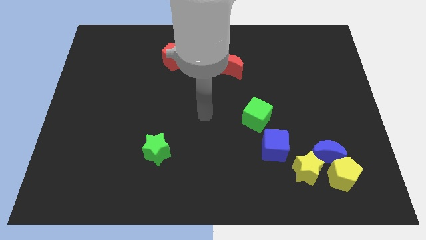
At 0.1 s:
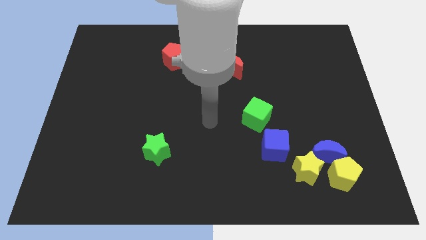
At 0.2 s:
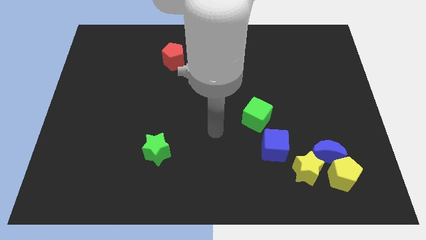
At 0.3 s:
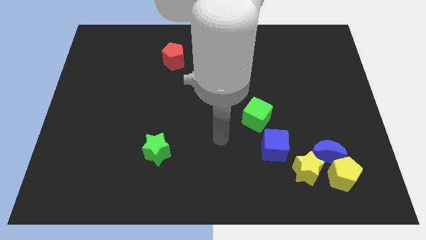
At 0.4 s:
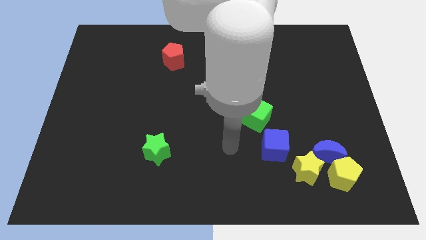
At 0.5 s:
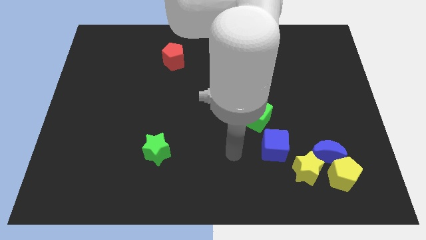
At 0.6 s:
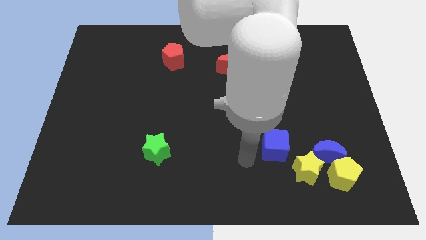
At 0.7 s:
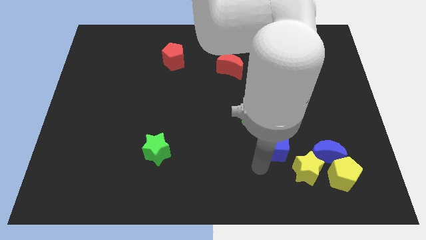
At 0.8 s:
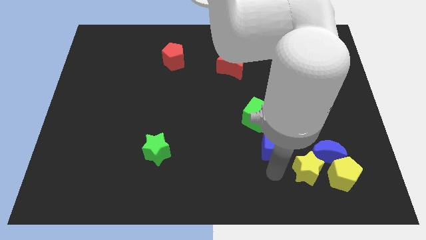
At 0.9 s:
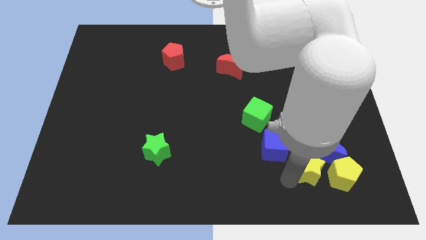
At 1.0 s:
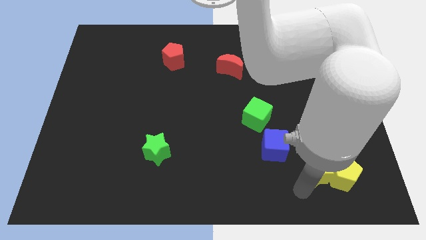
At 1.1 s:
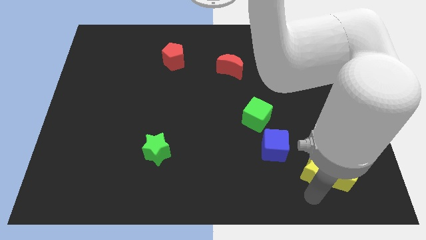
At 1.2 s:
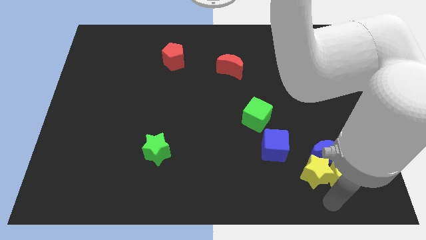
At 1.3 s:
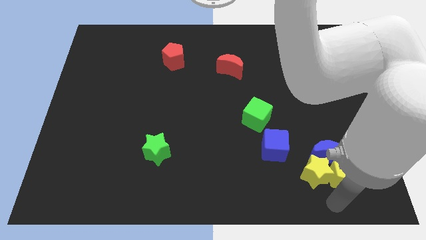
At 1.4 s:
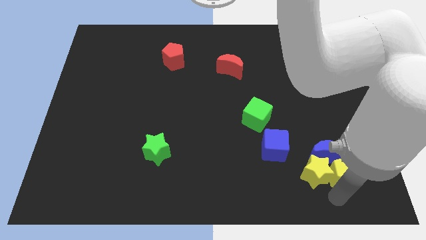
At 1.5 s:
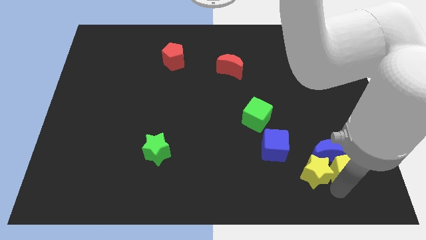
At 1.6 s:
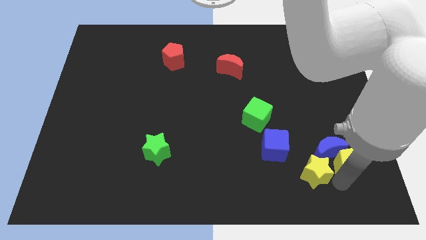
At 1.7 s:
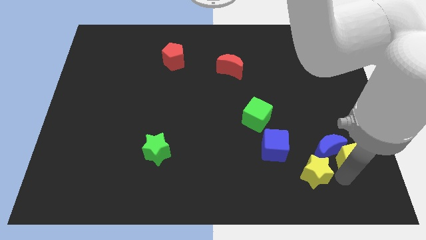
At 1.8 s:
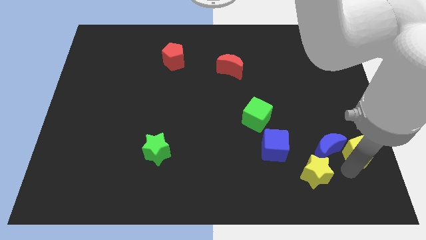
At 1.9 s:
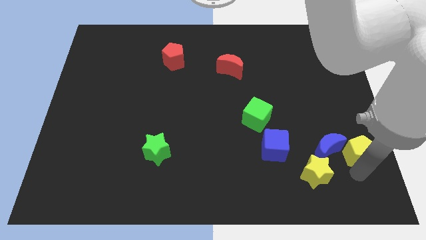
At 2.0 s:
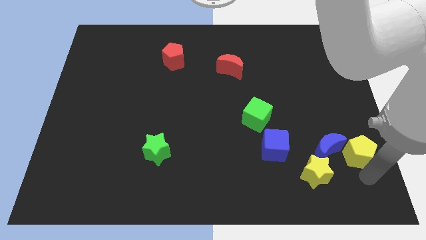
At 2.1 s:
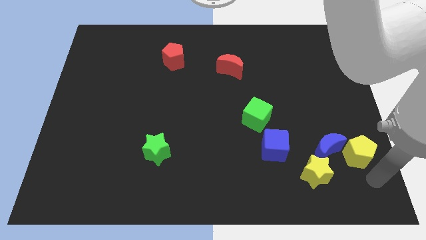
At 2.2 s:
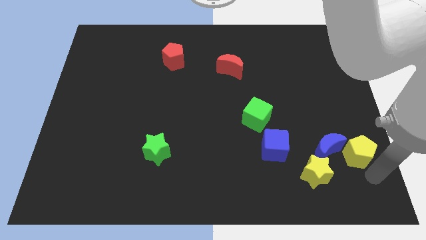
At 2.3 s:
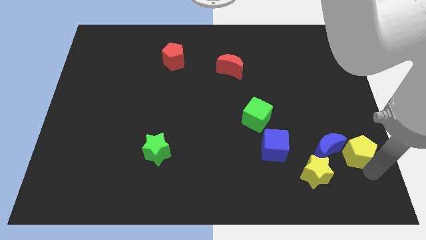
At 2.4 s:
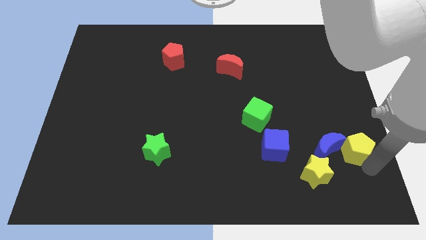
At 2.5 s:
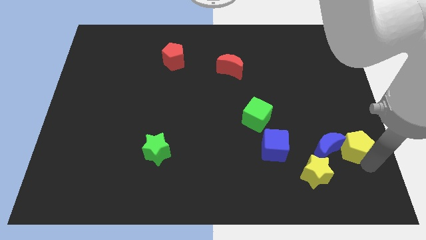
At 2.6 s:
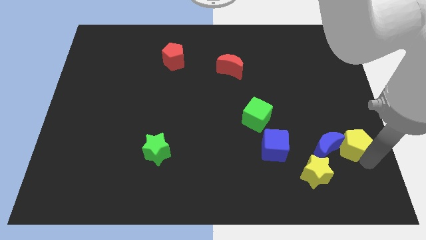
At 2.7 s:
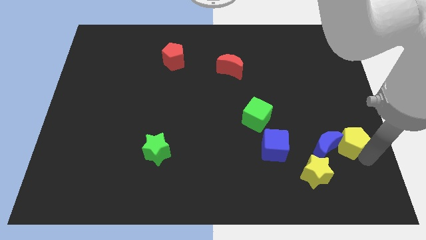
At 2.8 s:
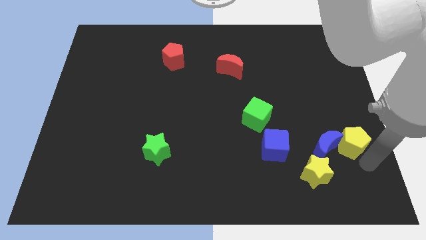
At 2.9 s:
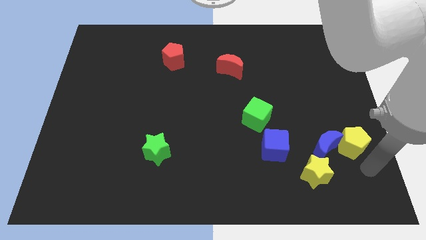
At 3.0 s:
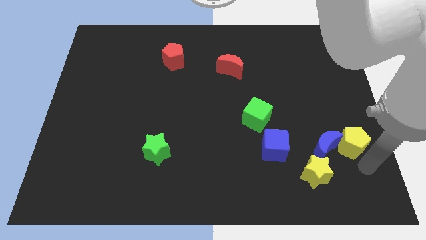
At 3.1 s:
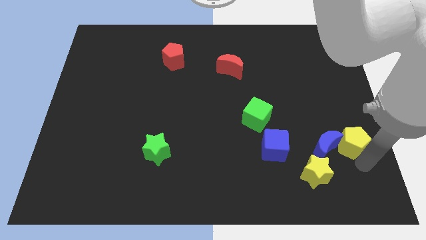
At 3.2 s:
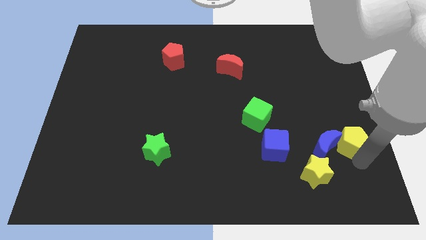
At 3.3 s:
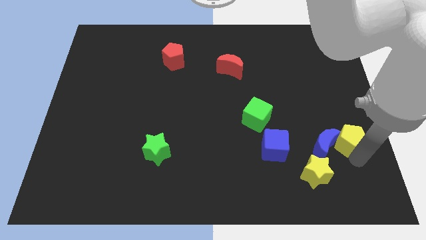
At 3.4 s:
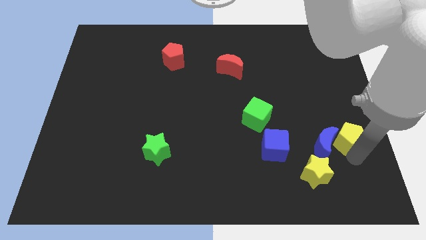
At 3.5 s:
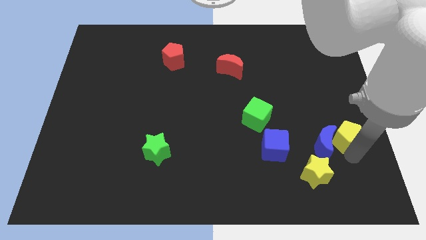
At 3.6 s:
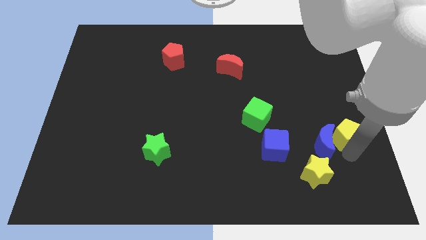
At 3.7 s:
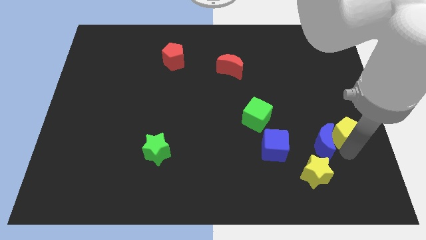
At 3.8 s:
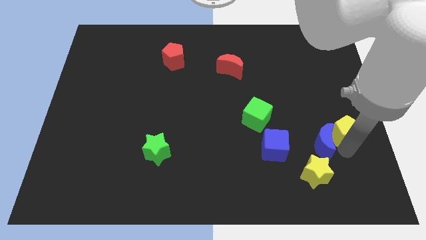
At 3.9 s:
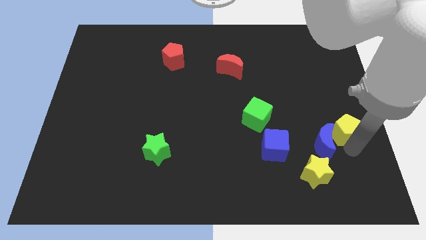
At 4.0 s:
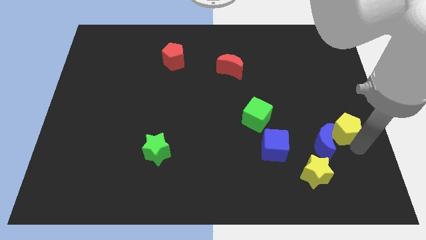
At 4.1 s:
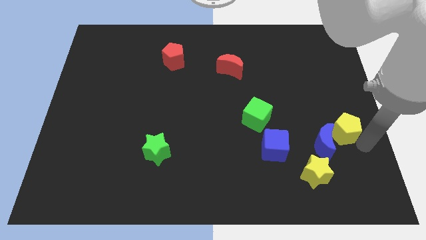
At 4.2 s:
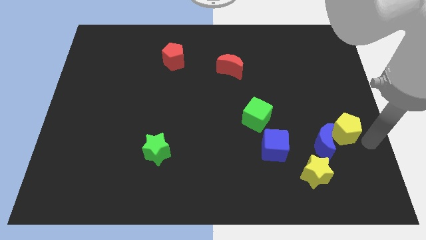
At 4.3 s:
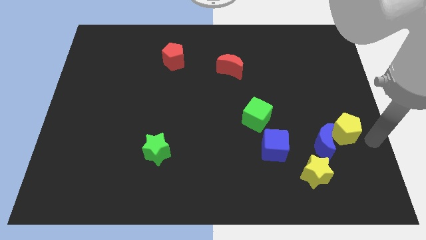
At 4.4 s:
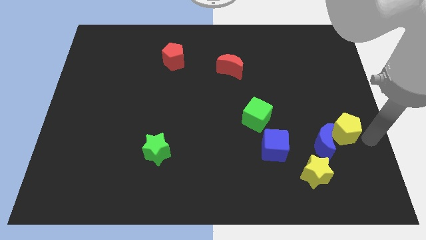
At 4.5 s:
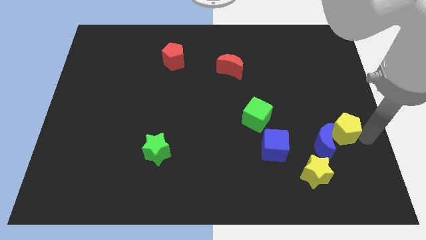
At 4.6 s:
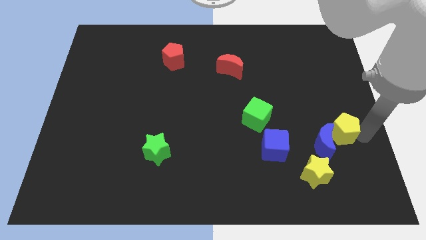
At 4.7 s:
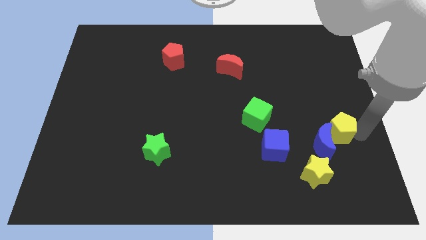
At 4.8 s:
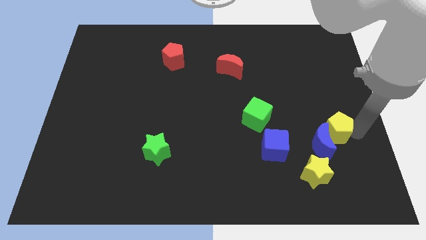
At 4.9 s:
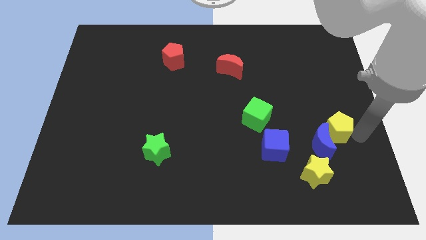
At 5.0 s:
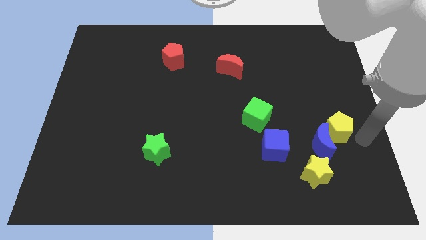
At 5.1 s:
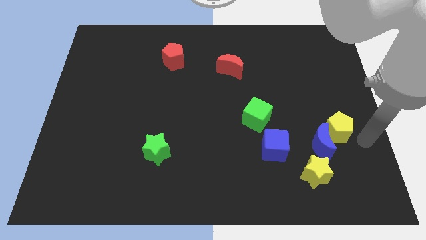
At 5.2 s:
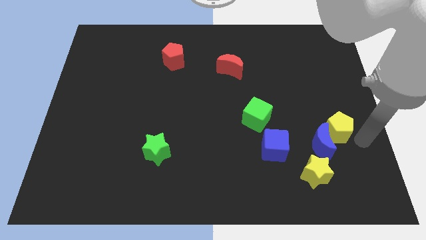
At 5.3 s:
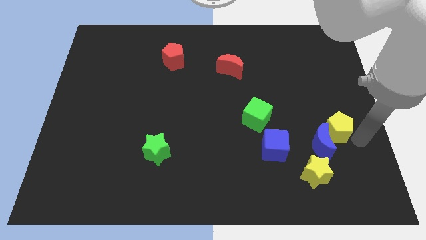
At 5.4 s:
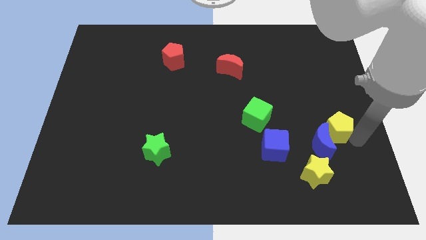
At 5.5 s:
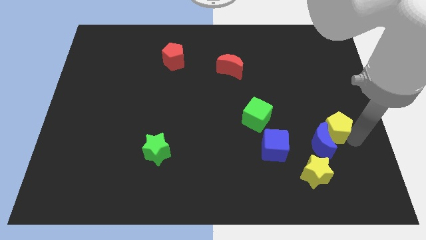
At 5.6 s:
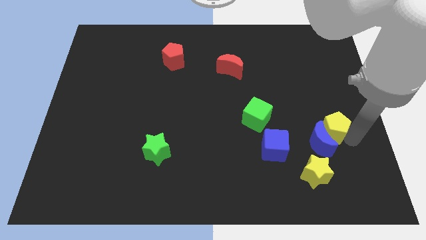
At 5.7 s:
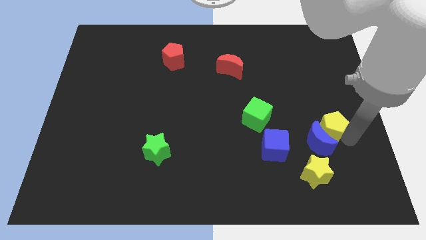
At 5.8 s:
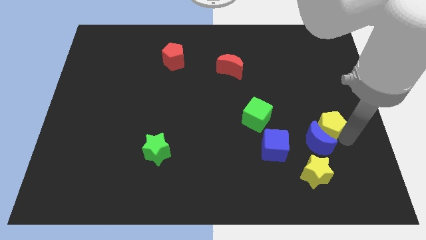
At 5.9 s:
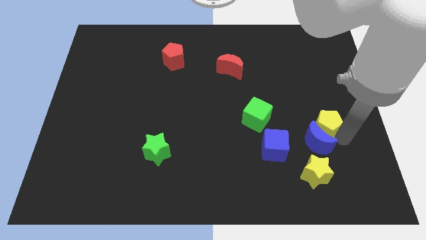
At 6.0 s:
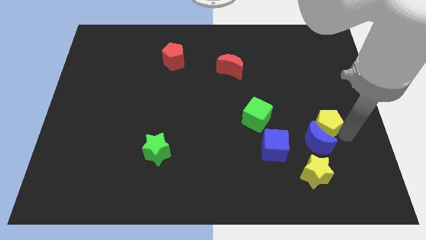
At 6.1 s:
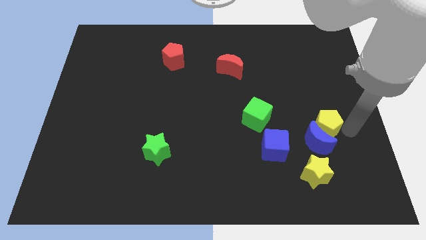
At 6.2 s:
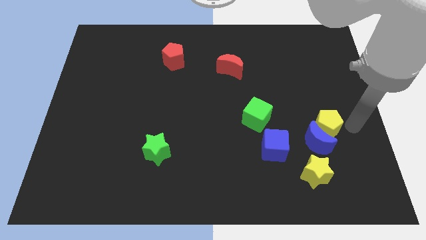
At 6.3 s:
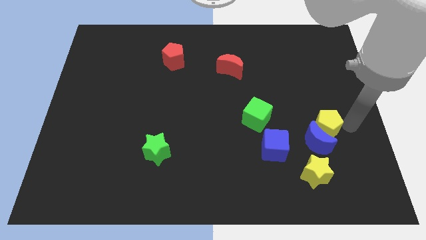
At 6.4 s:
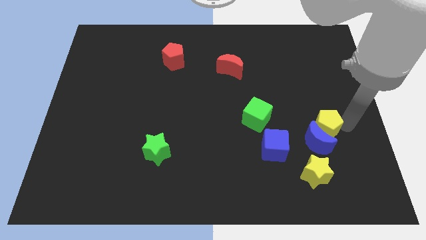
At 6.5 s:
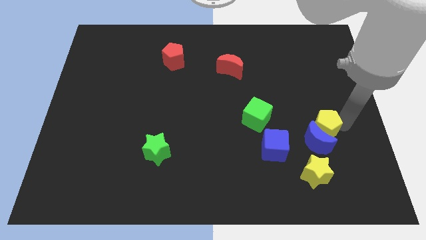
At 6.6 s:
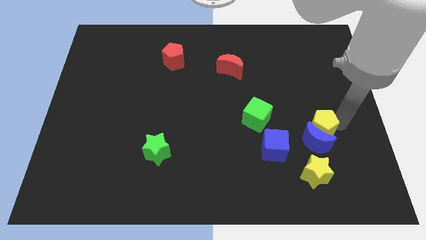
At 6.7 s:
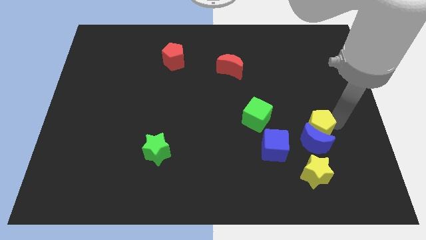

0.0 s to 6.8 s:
push the yellow pentagon to the top right of the blue cube
